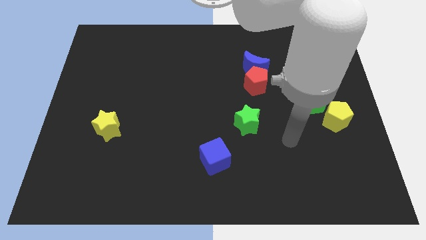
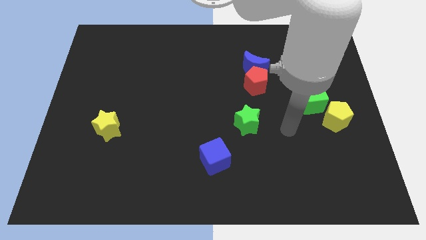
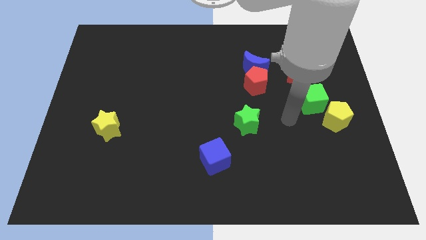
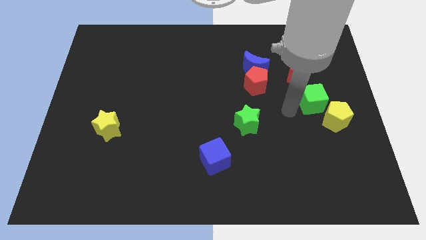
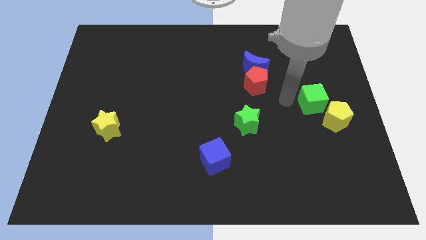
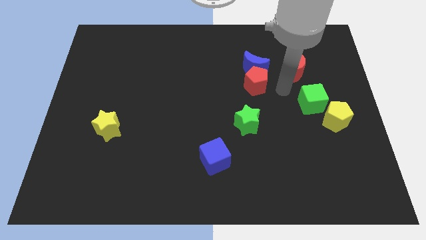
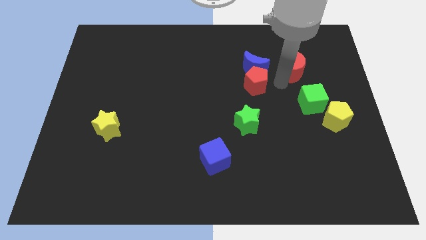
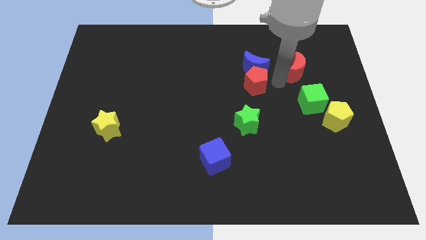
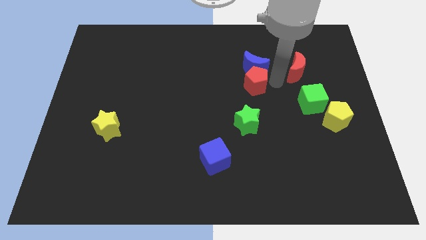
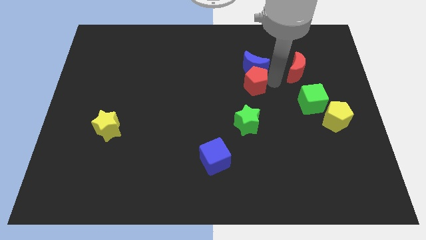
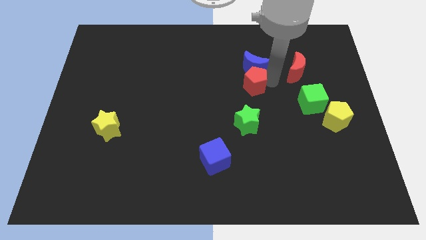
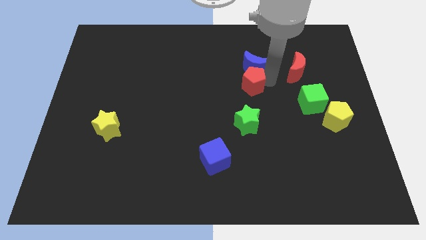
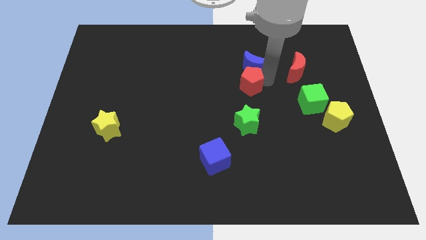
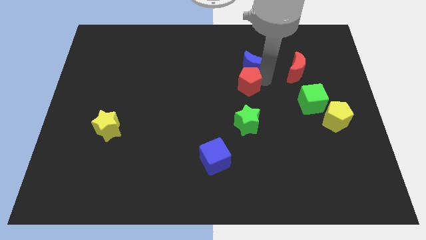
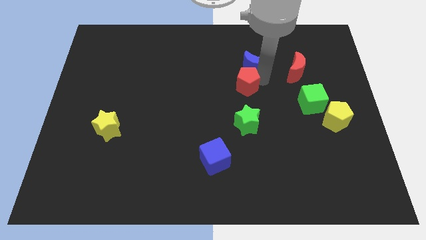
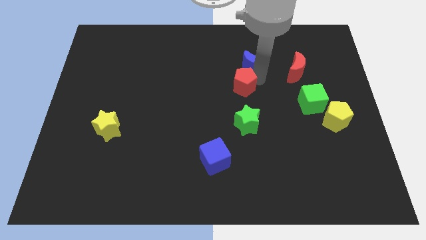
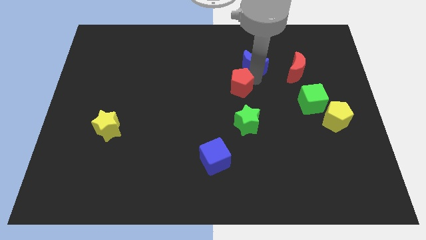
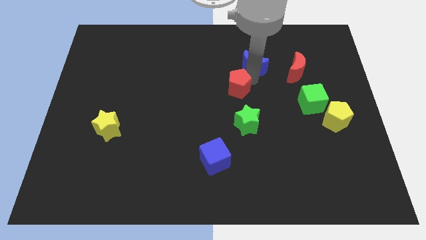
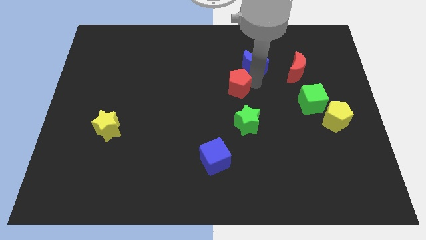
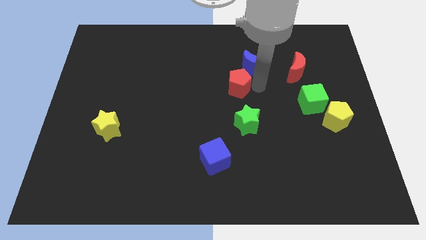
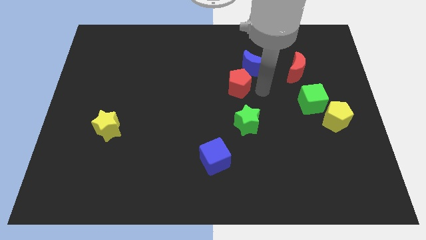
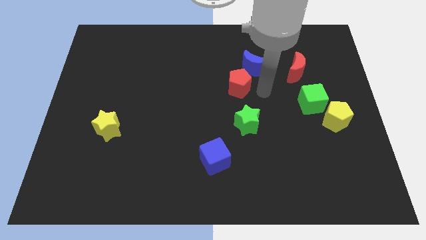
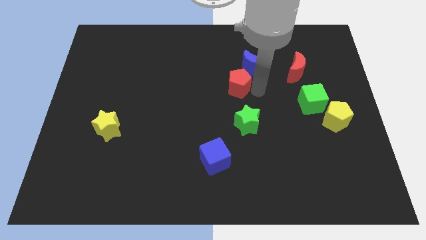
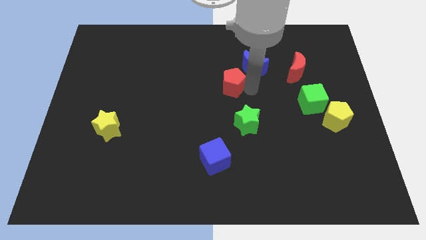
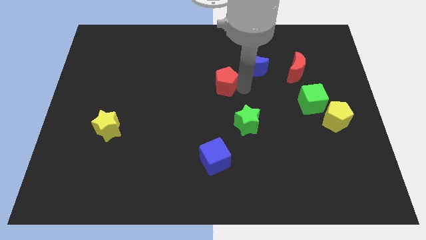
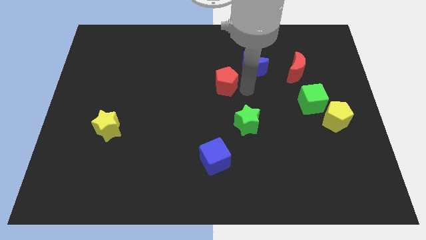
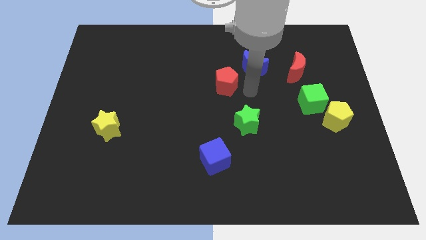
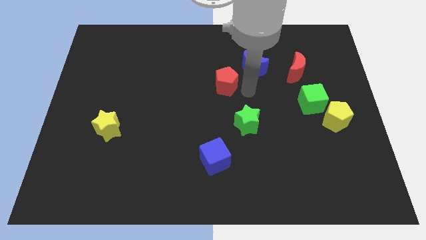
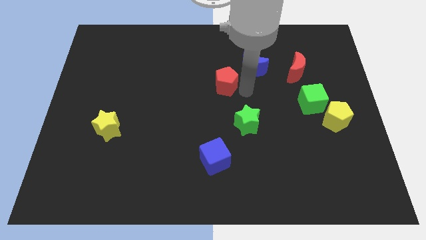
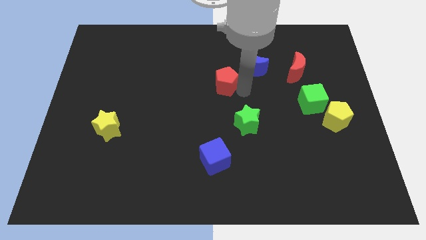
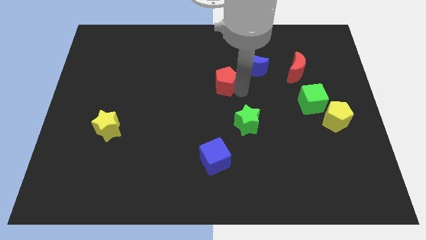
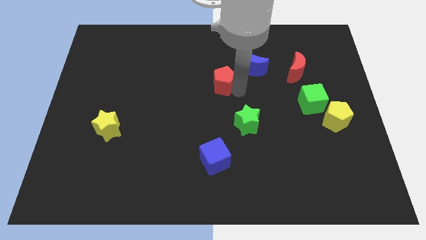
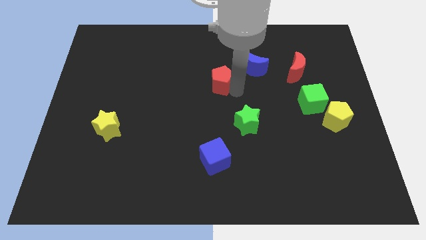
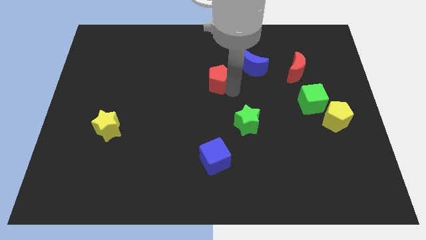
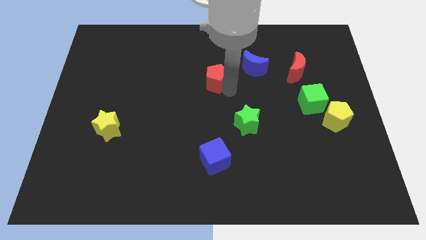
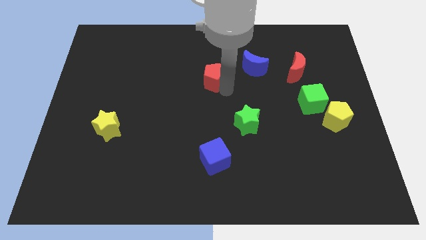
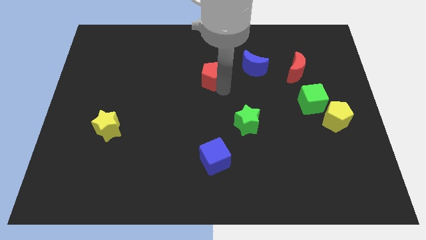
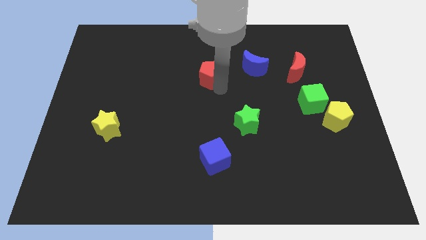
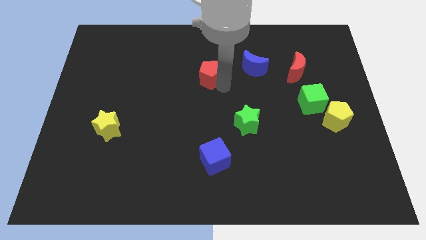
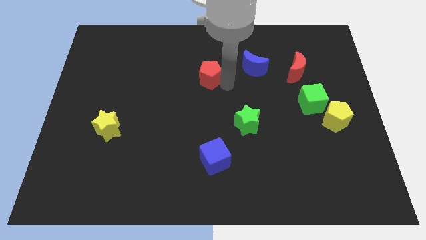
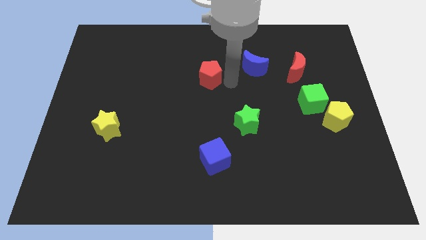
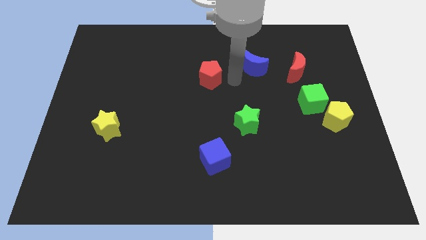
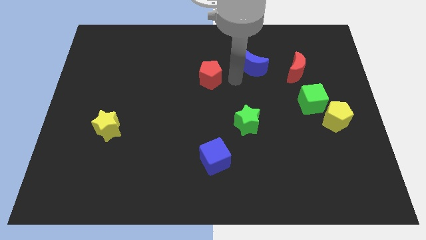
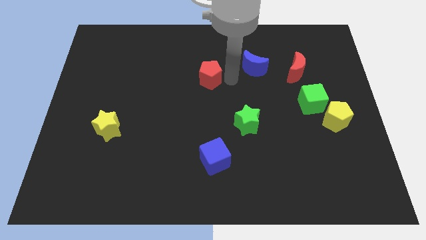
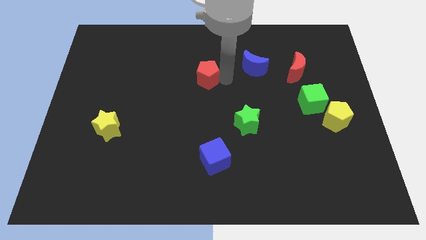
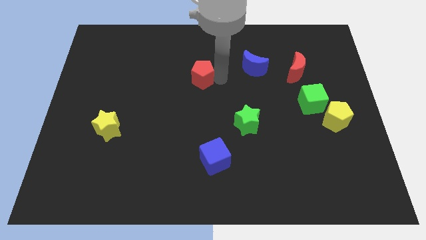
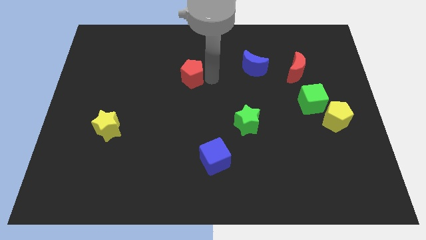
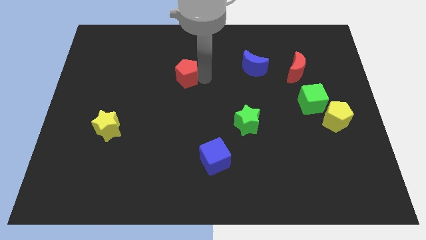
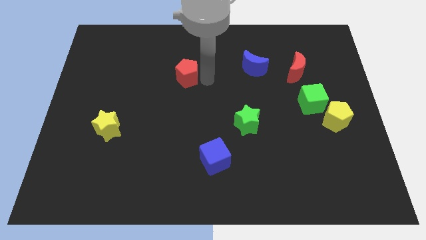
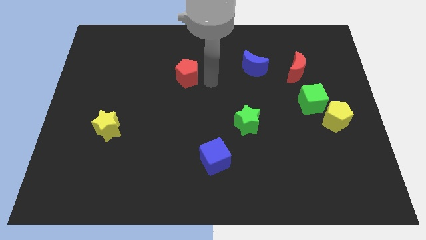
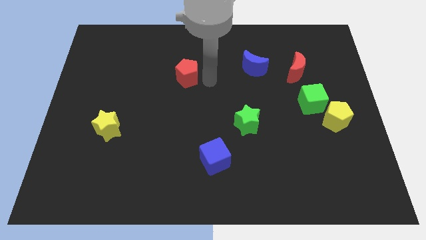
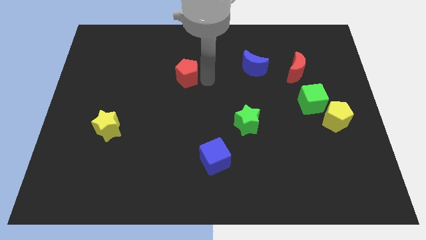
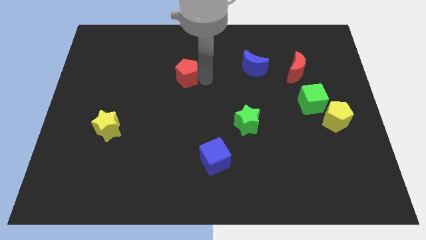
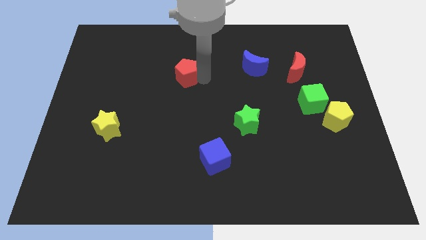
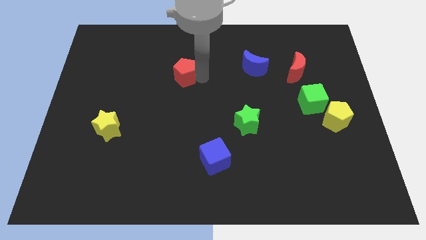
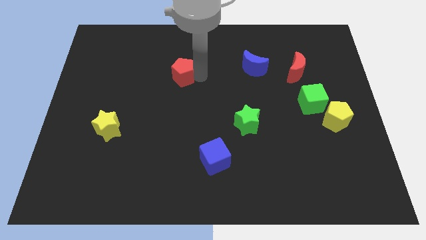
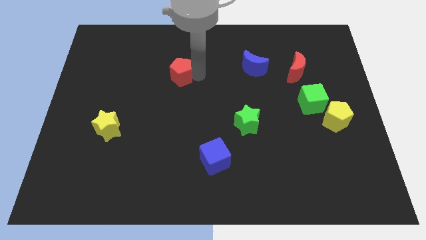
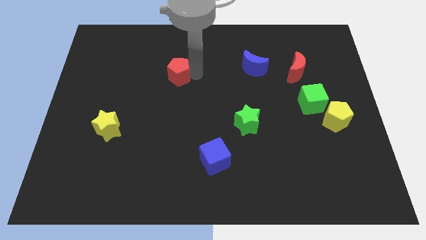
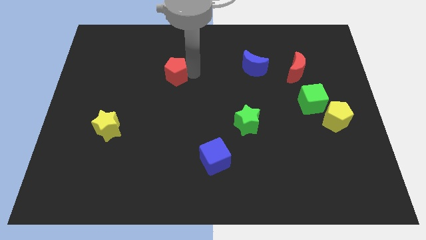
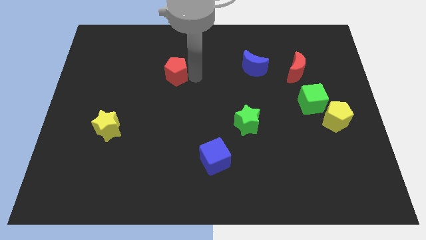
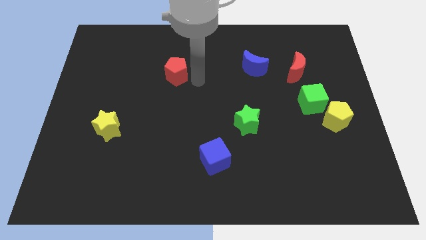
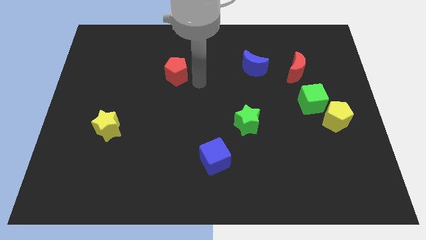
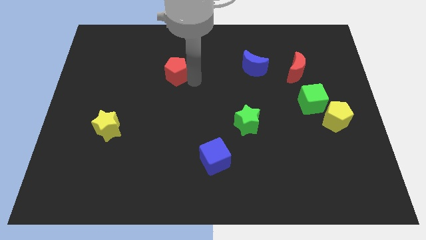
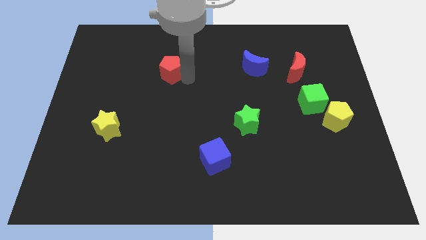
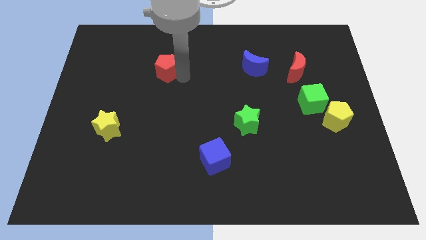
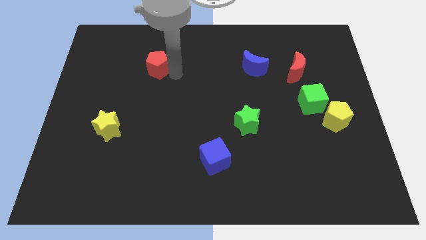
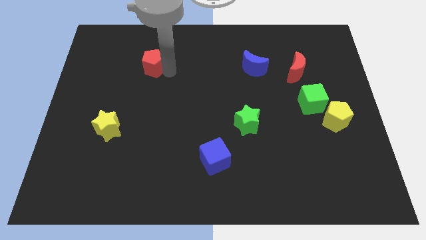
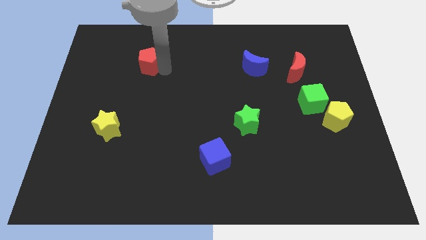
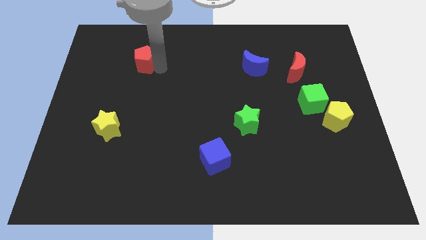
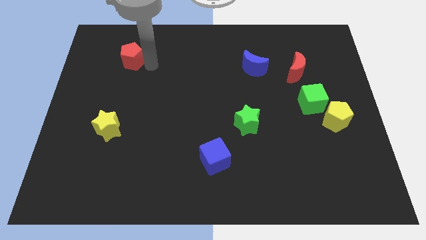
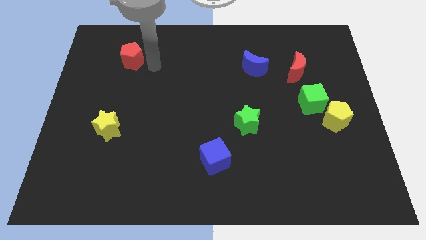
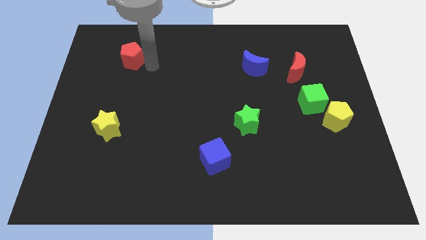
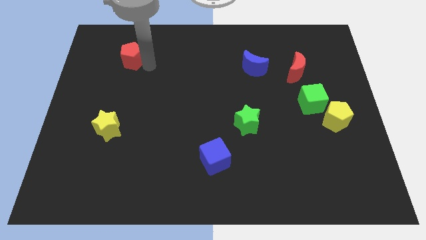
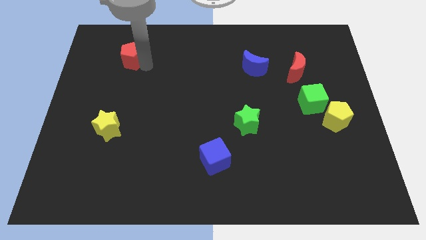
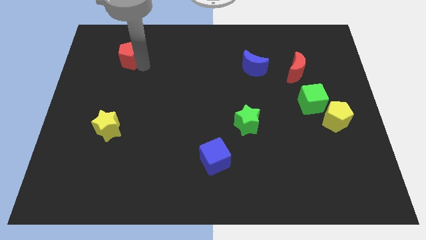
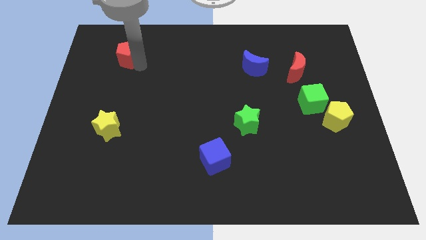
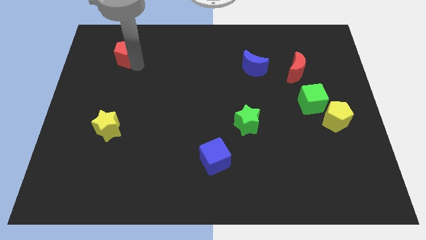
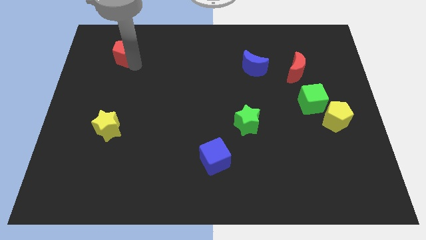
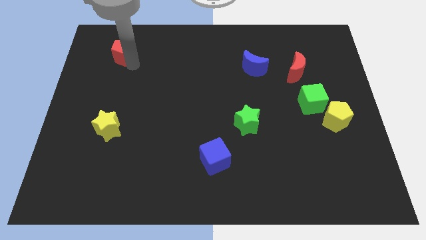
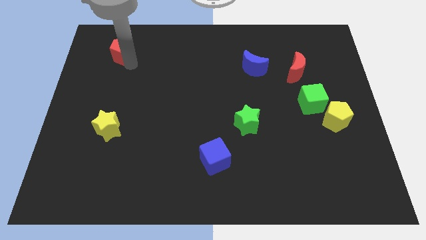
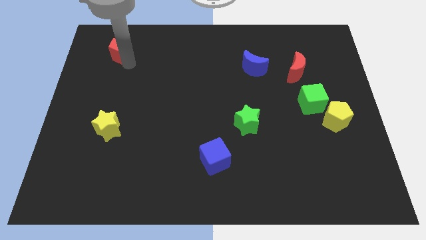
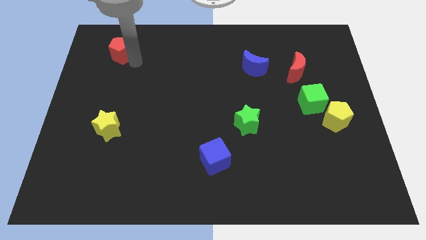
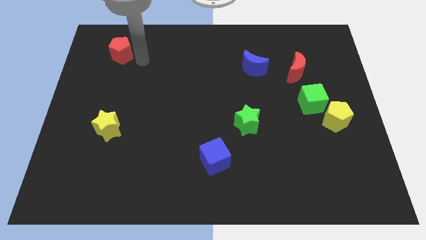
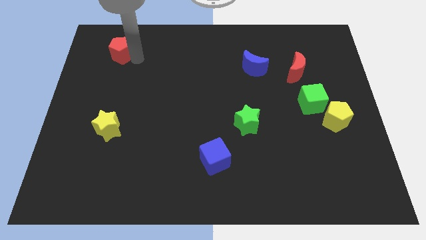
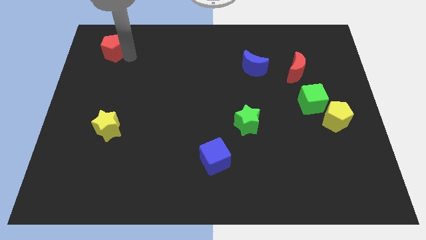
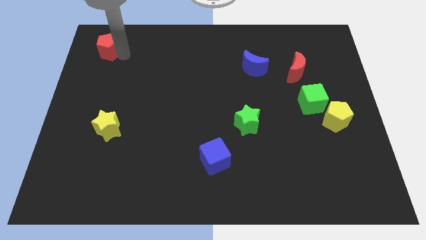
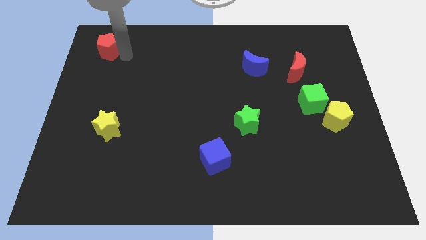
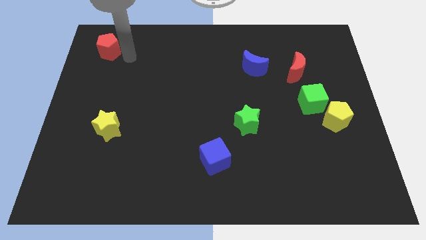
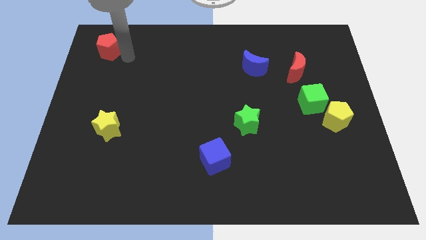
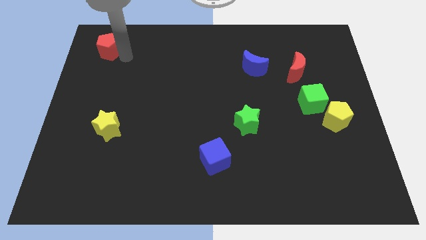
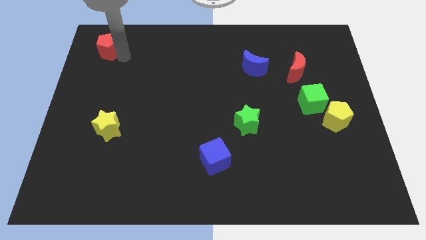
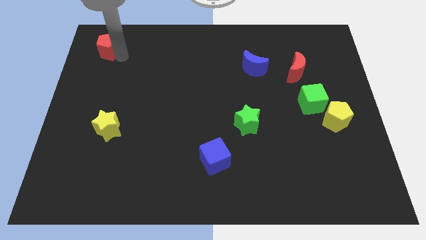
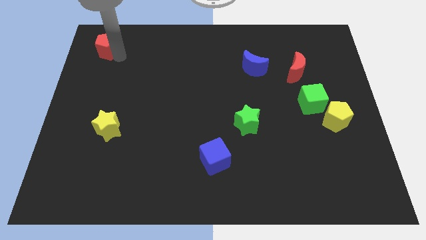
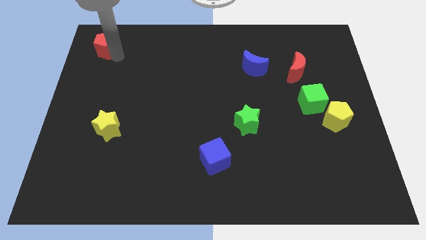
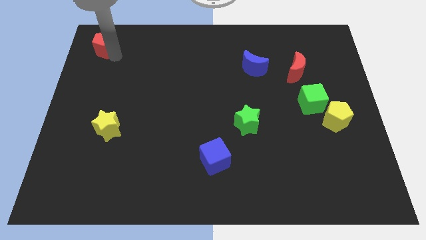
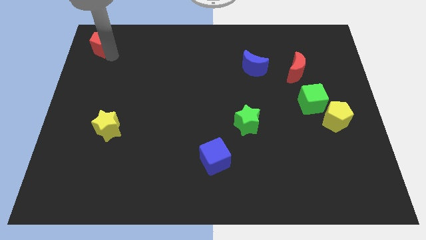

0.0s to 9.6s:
put the red pentagon to the top left of the board
